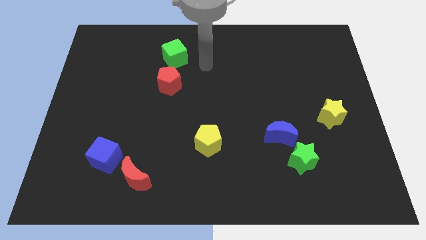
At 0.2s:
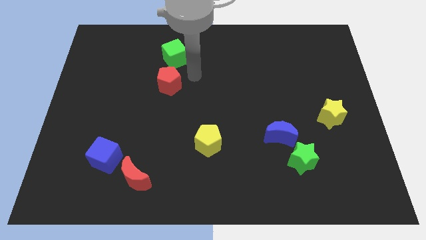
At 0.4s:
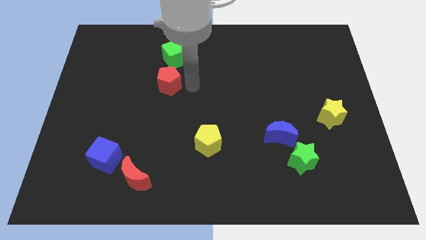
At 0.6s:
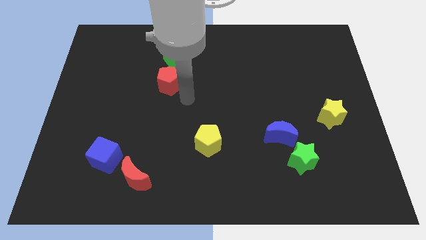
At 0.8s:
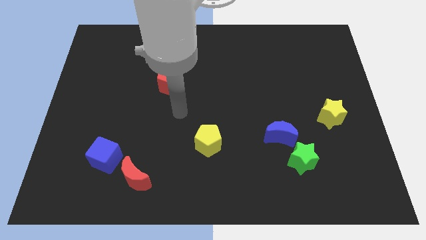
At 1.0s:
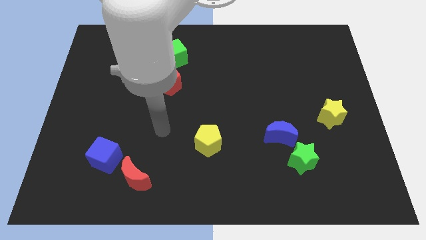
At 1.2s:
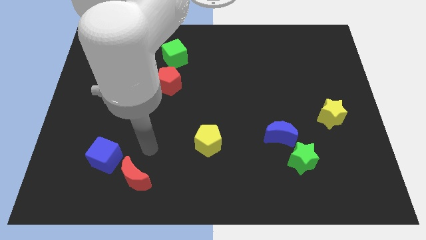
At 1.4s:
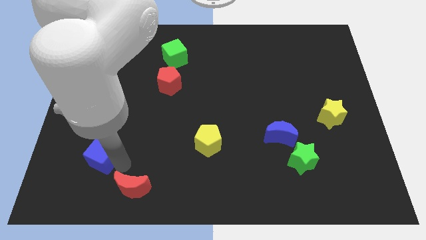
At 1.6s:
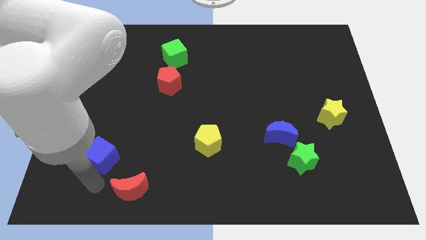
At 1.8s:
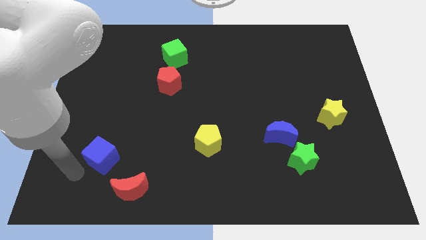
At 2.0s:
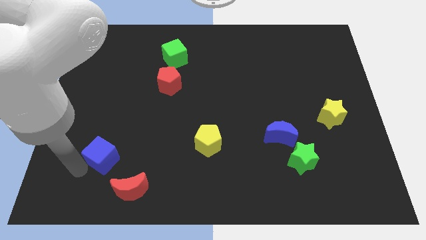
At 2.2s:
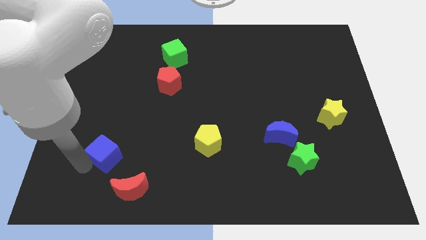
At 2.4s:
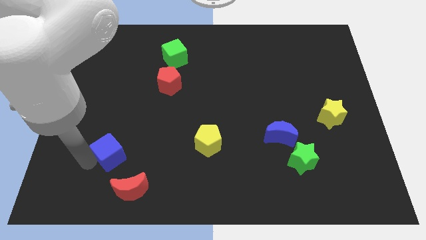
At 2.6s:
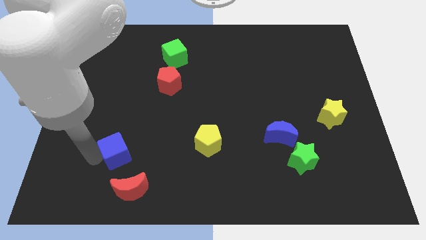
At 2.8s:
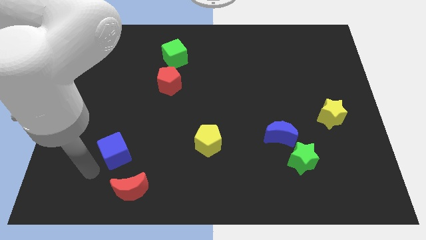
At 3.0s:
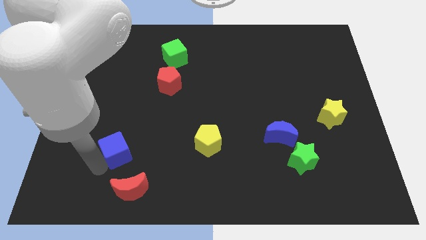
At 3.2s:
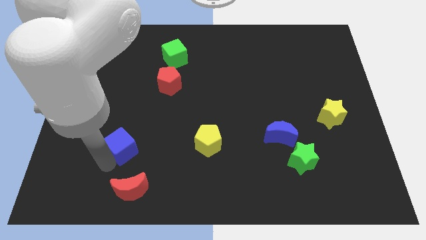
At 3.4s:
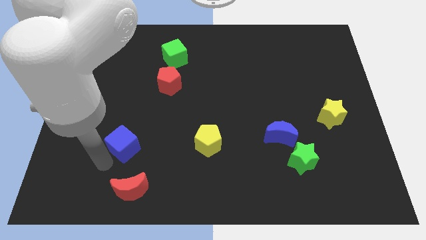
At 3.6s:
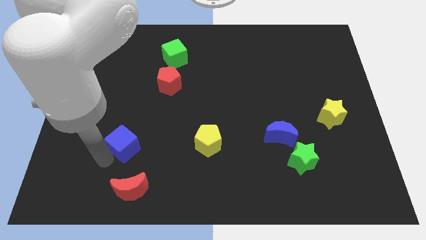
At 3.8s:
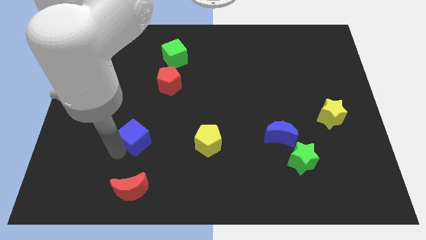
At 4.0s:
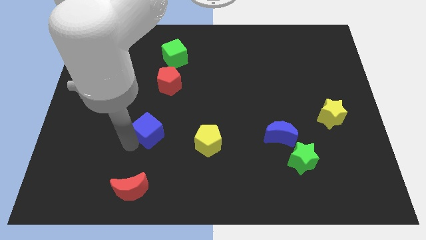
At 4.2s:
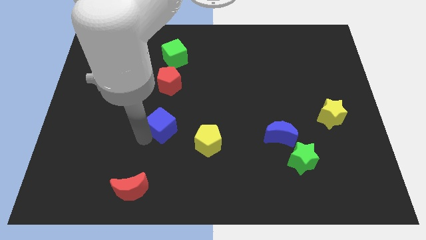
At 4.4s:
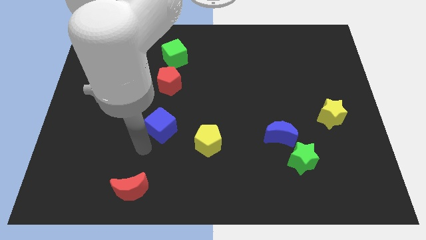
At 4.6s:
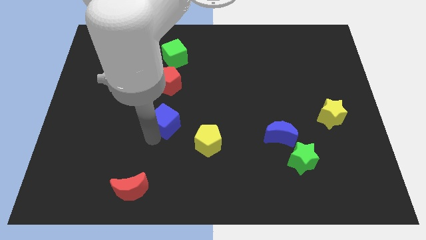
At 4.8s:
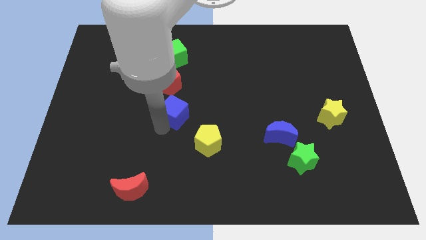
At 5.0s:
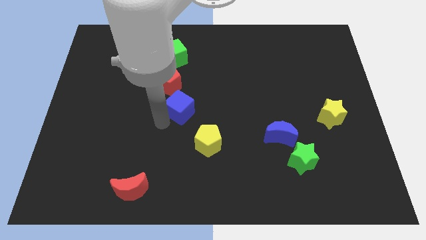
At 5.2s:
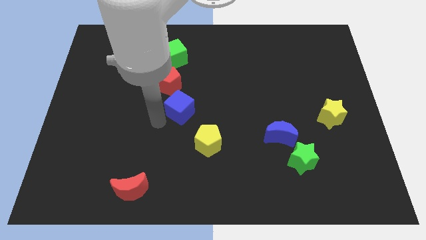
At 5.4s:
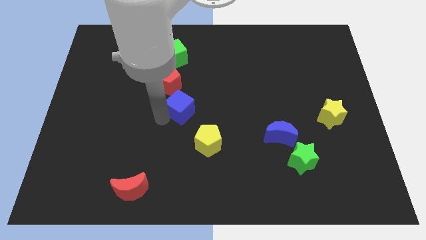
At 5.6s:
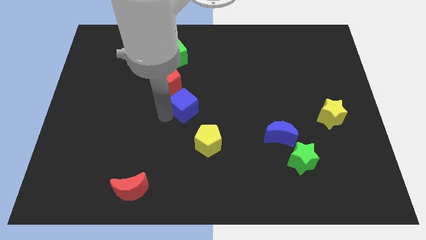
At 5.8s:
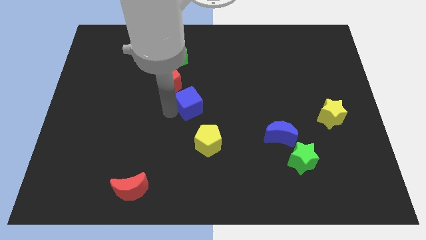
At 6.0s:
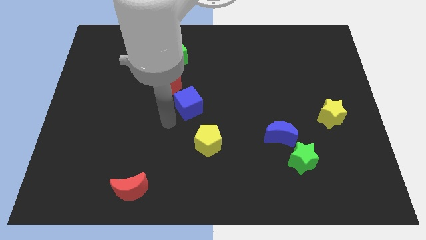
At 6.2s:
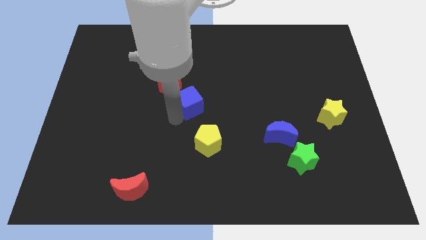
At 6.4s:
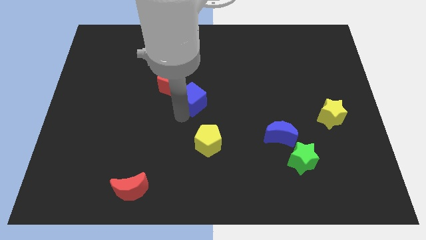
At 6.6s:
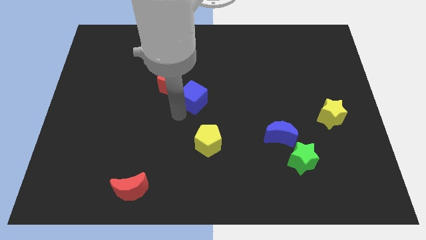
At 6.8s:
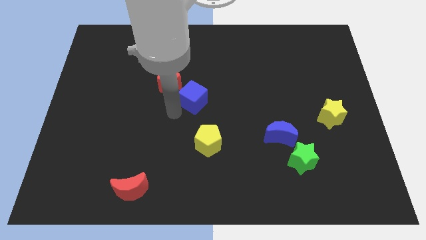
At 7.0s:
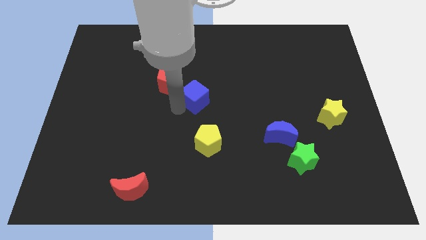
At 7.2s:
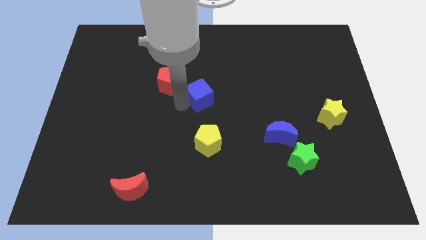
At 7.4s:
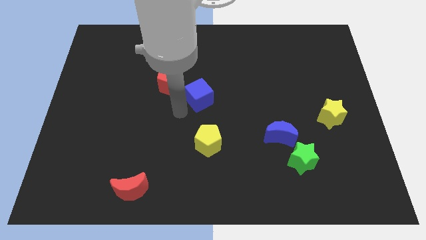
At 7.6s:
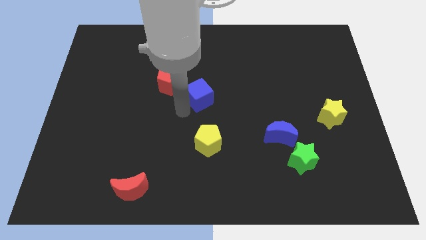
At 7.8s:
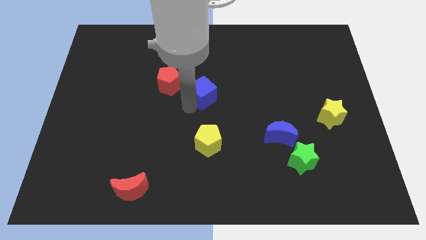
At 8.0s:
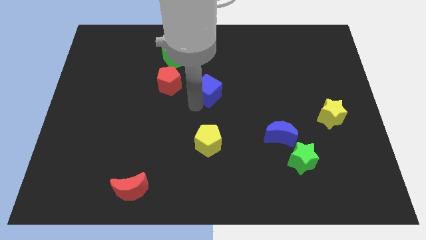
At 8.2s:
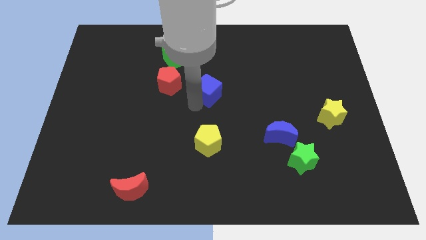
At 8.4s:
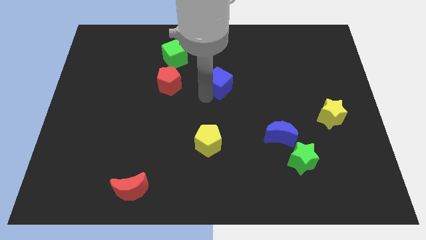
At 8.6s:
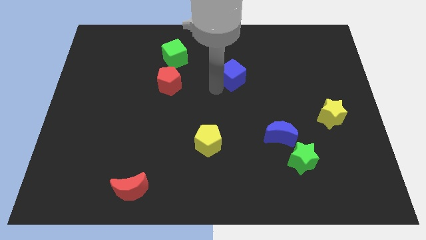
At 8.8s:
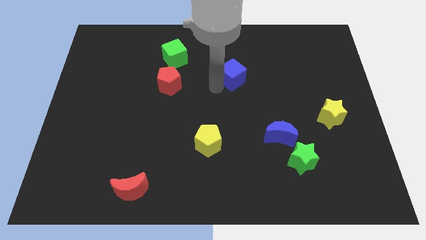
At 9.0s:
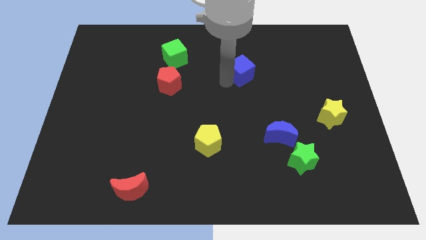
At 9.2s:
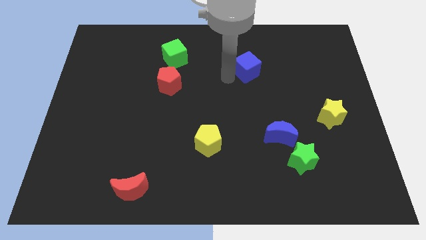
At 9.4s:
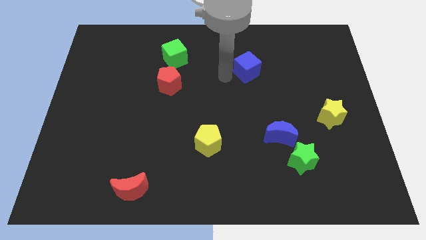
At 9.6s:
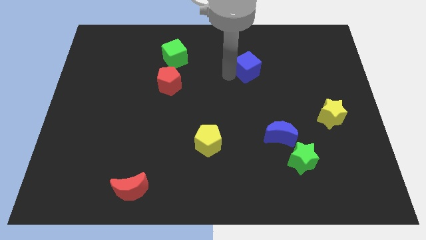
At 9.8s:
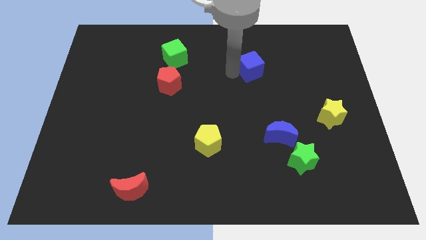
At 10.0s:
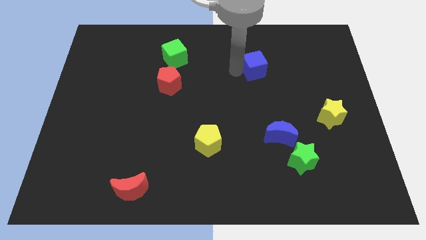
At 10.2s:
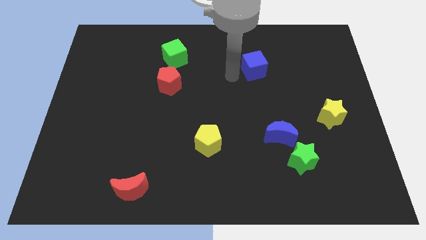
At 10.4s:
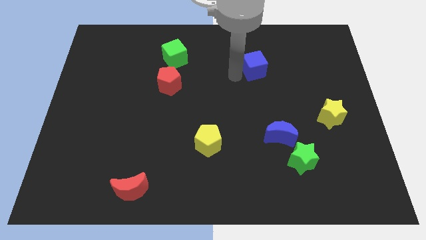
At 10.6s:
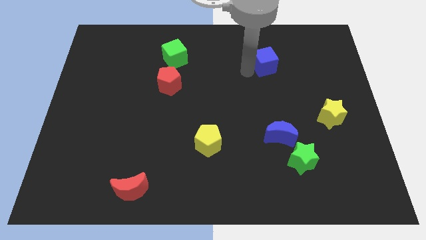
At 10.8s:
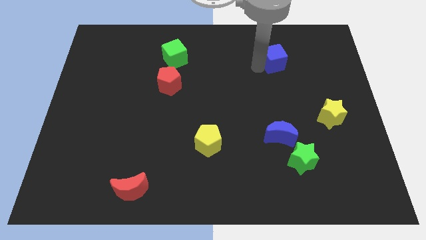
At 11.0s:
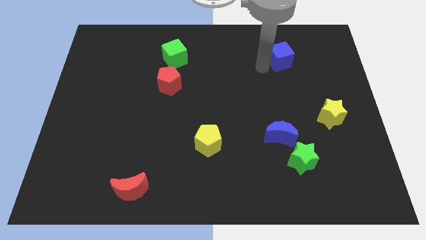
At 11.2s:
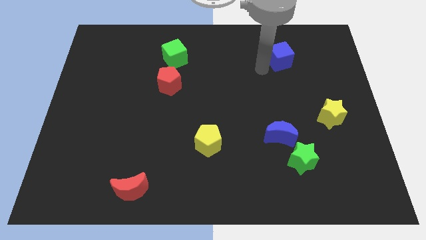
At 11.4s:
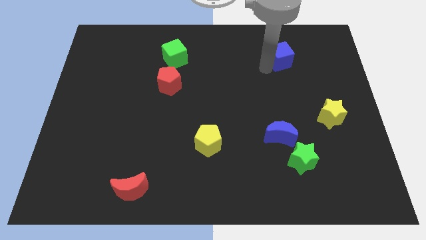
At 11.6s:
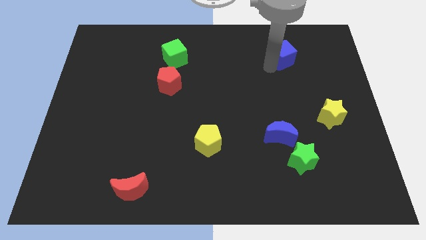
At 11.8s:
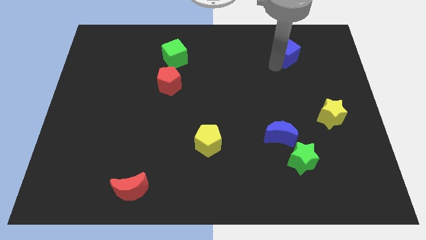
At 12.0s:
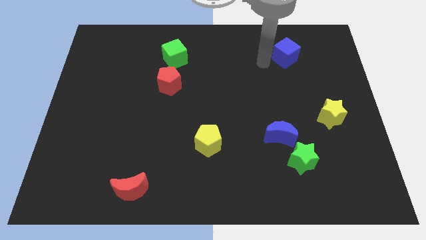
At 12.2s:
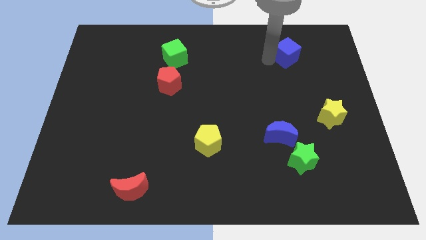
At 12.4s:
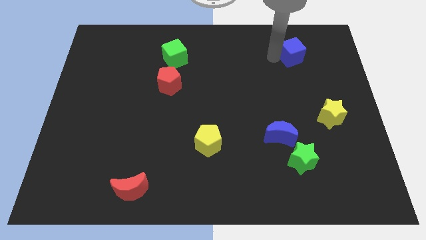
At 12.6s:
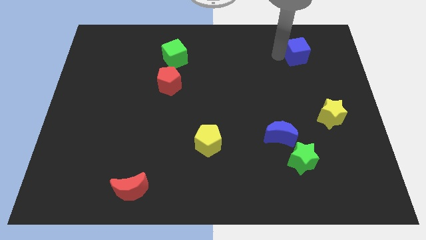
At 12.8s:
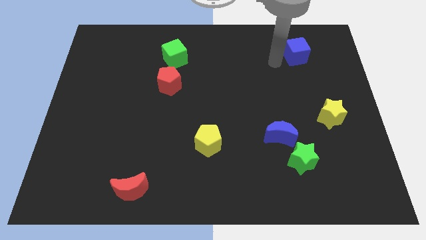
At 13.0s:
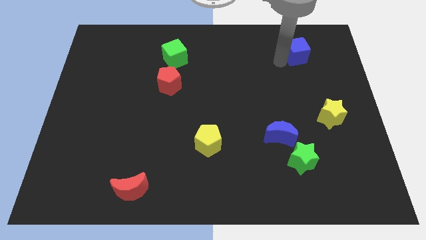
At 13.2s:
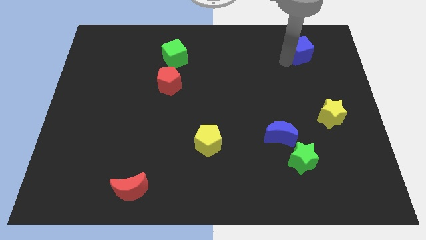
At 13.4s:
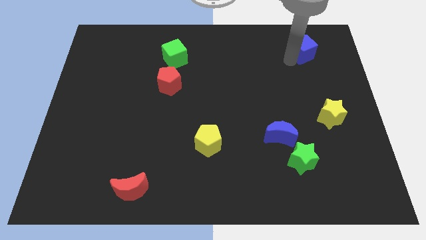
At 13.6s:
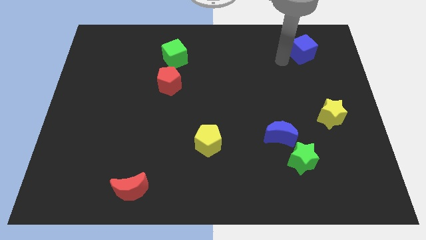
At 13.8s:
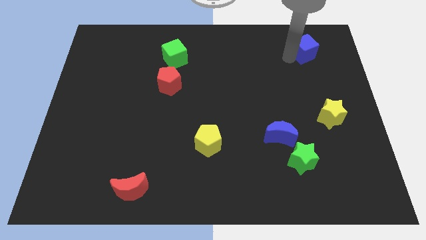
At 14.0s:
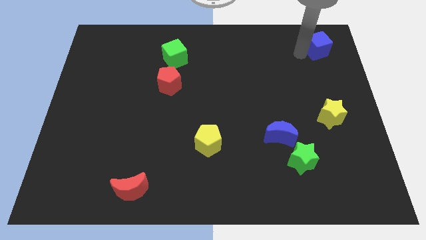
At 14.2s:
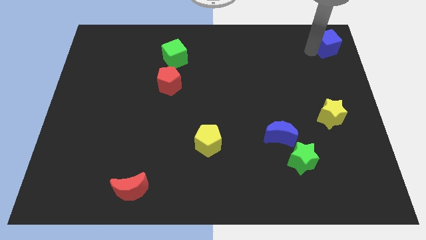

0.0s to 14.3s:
push the blue cube to the top right corner
